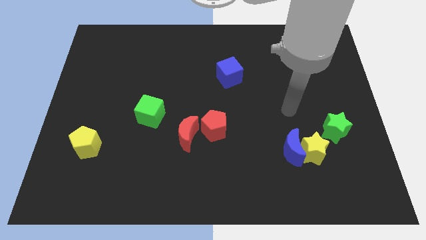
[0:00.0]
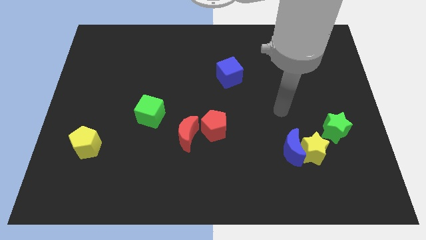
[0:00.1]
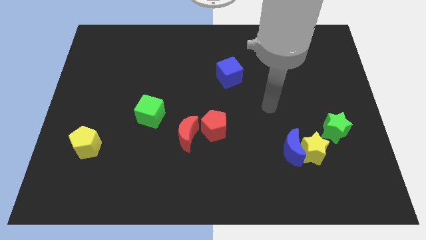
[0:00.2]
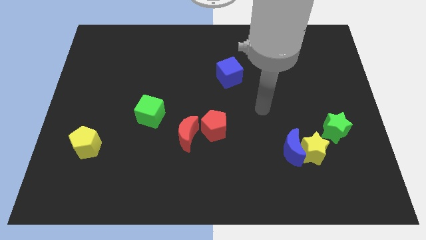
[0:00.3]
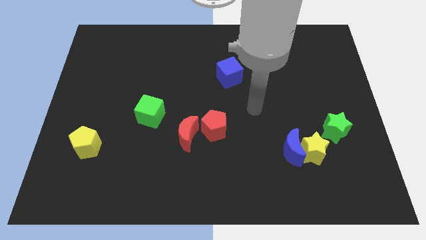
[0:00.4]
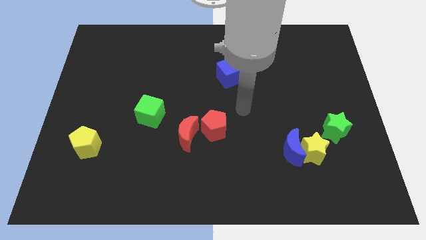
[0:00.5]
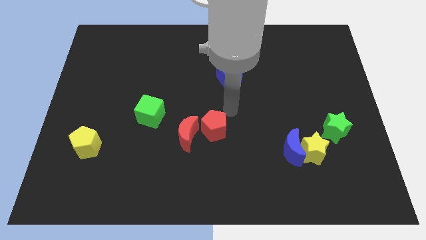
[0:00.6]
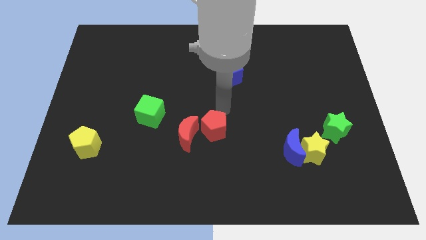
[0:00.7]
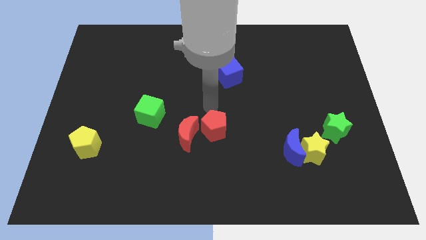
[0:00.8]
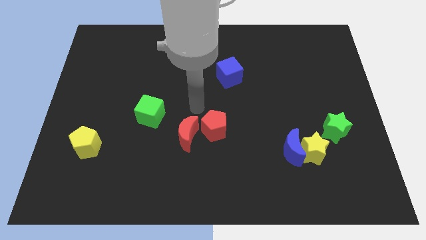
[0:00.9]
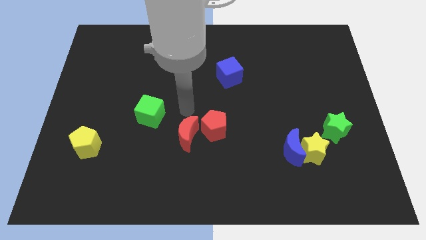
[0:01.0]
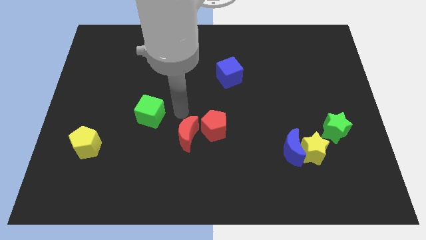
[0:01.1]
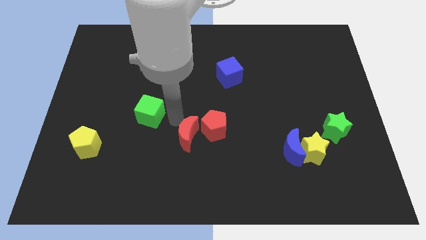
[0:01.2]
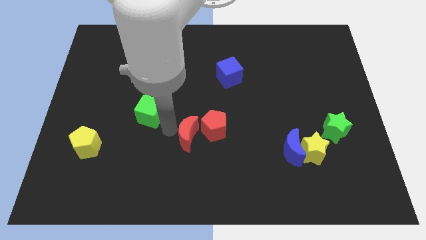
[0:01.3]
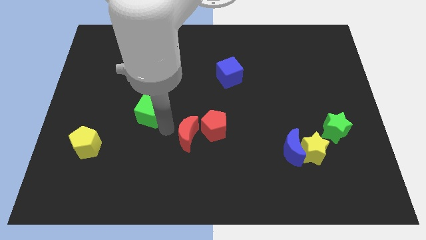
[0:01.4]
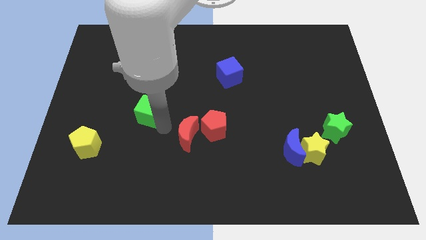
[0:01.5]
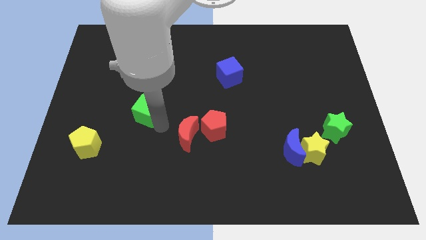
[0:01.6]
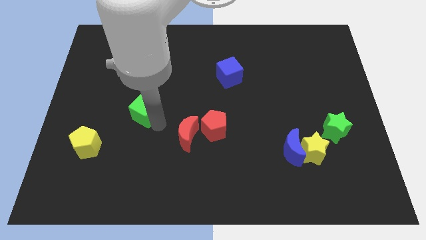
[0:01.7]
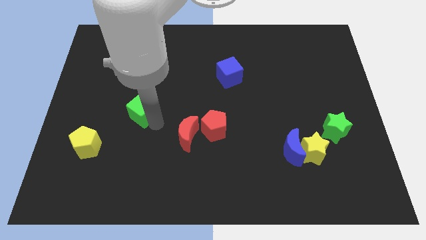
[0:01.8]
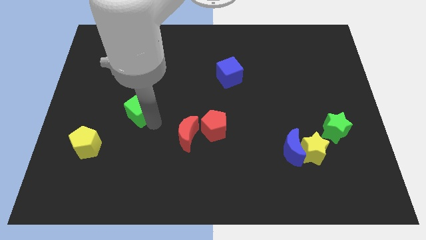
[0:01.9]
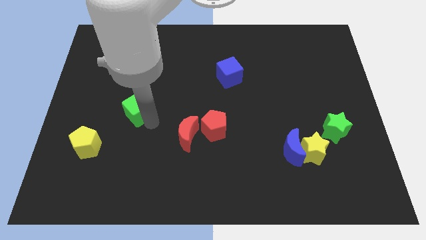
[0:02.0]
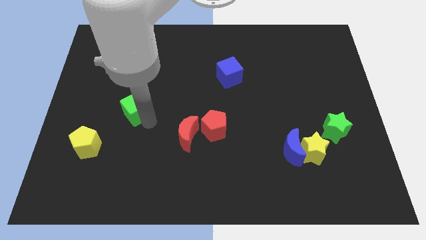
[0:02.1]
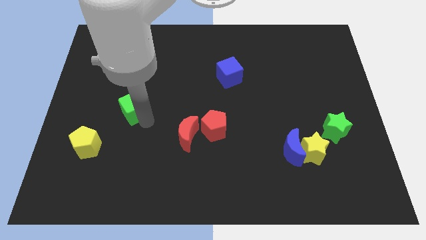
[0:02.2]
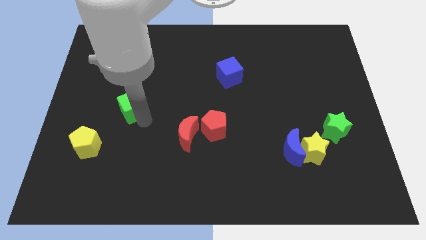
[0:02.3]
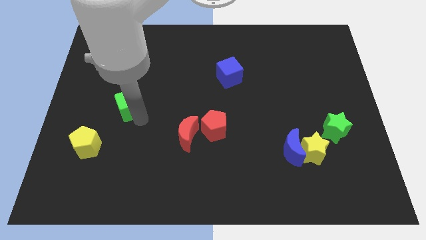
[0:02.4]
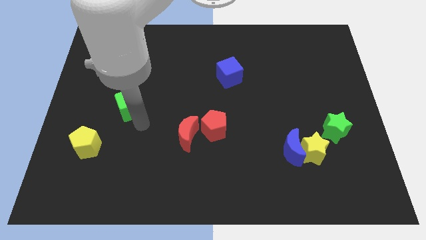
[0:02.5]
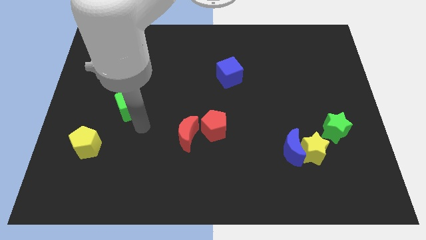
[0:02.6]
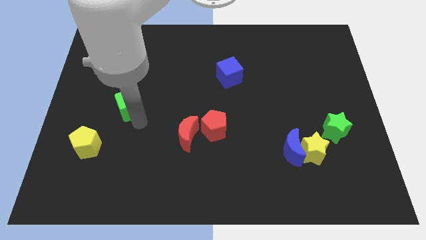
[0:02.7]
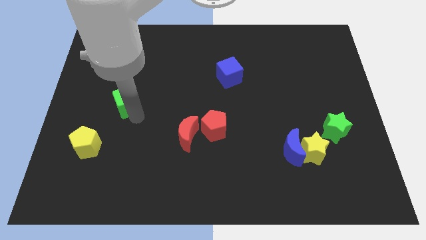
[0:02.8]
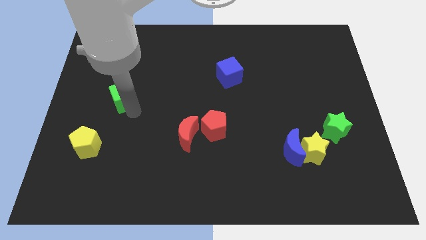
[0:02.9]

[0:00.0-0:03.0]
slide the green cube somewhat diagonally up and left

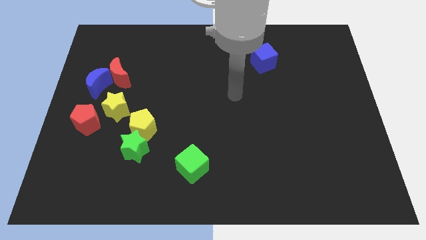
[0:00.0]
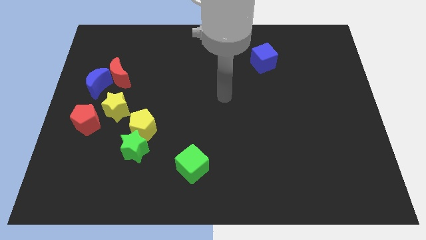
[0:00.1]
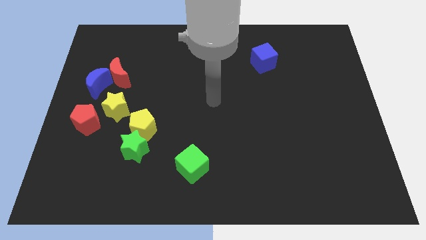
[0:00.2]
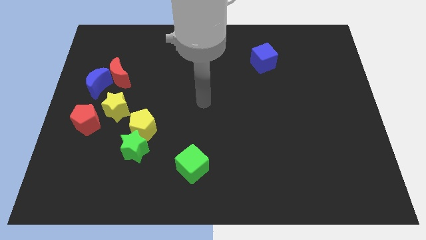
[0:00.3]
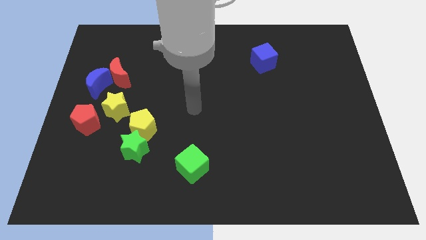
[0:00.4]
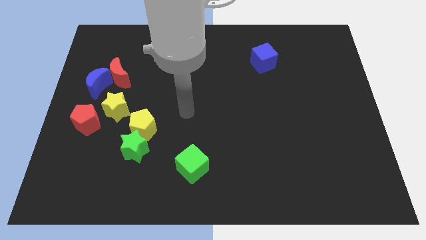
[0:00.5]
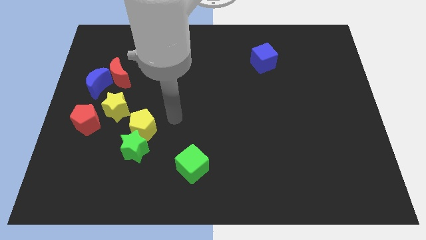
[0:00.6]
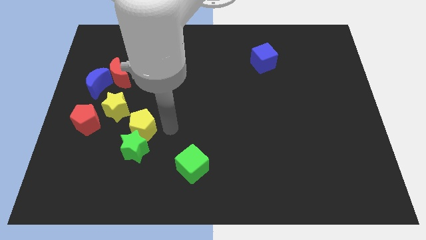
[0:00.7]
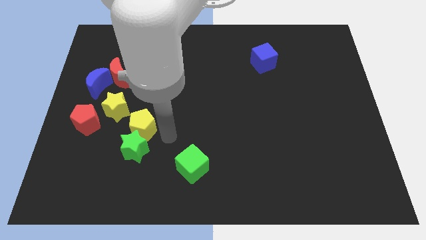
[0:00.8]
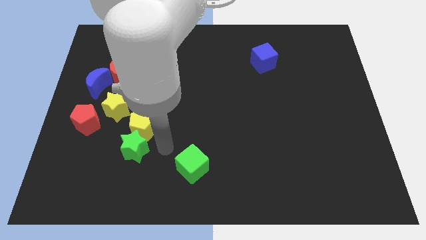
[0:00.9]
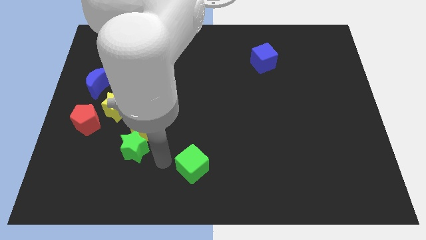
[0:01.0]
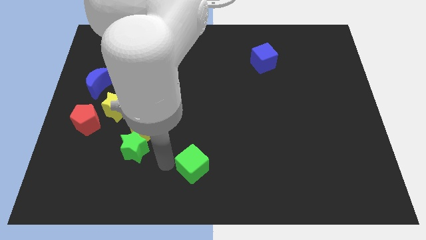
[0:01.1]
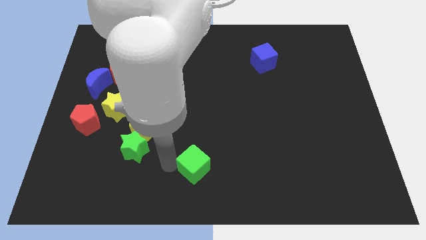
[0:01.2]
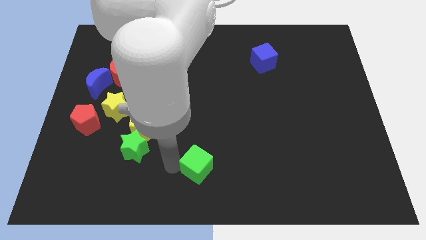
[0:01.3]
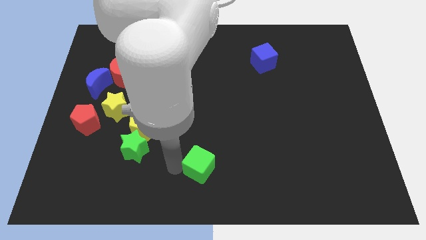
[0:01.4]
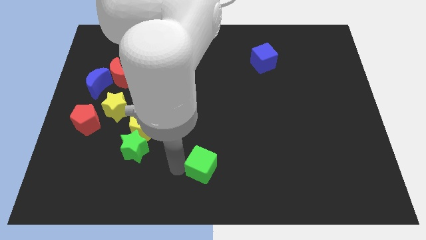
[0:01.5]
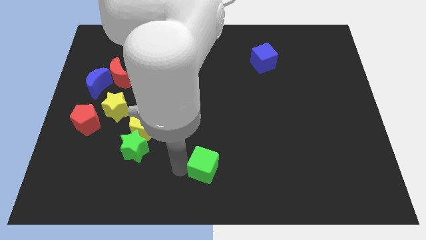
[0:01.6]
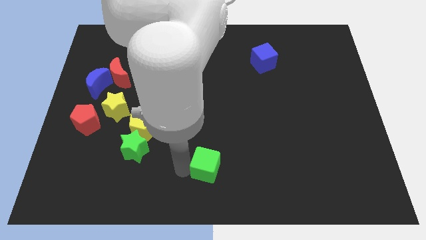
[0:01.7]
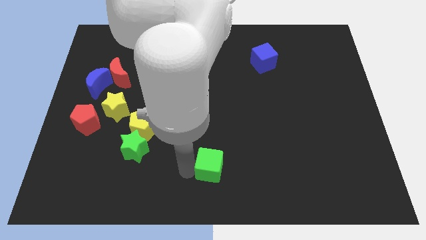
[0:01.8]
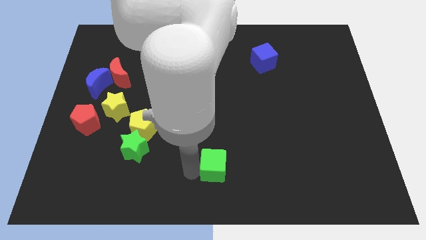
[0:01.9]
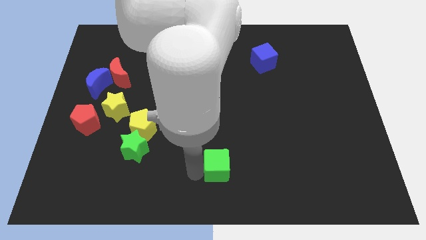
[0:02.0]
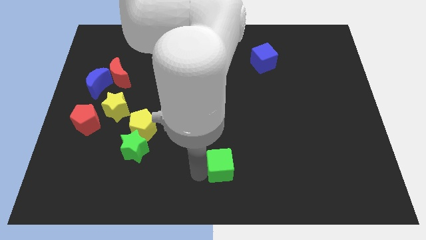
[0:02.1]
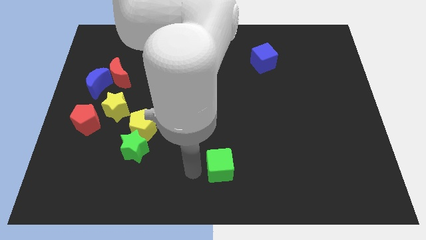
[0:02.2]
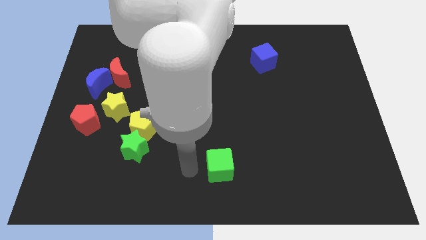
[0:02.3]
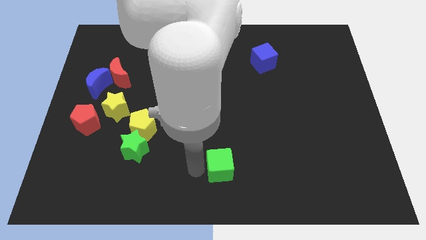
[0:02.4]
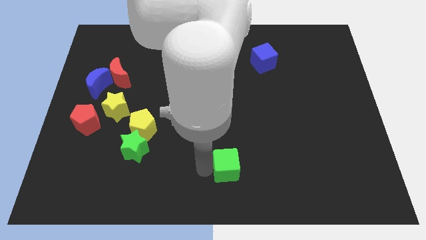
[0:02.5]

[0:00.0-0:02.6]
slightly move the green cube right

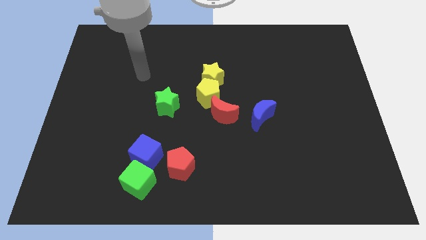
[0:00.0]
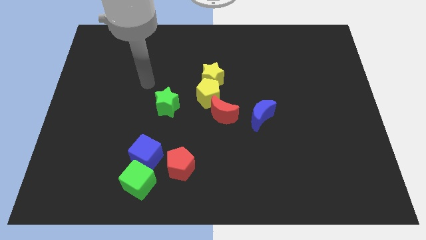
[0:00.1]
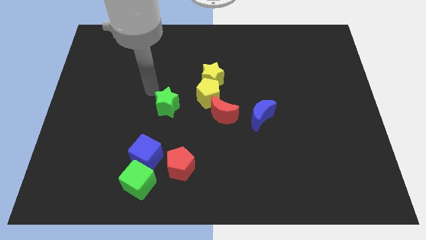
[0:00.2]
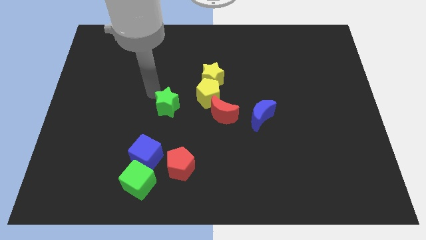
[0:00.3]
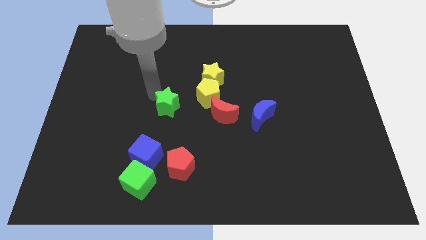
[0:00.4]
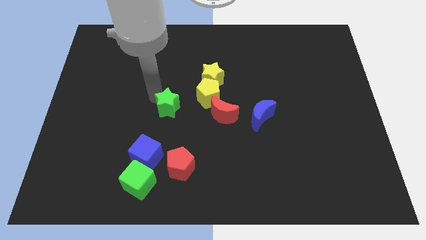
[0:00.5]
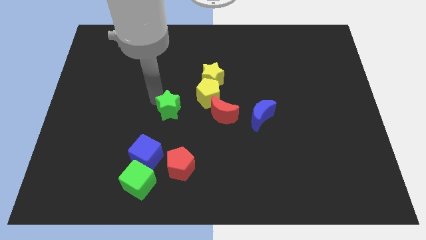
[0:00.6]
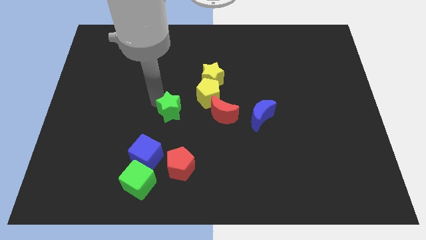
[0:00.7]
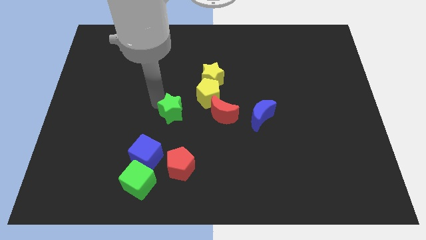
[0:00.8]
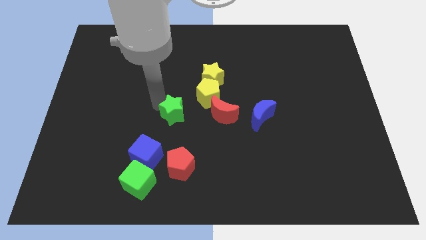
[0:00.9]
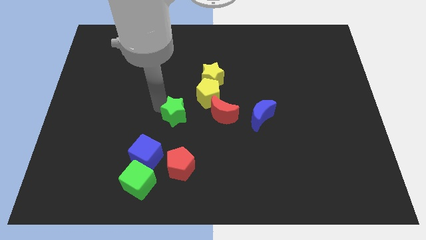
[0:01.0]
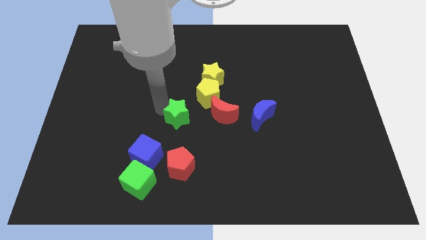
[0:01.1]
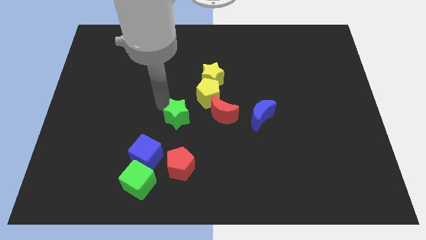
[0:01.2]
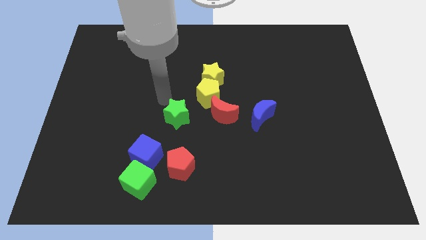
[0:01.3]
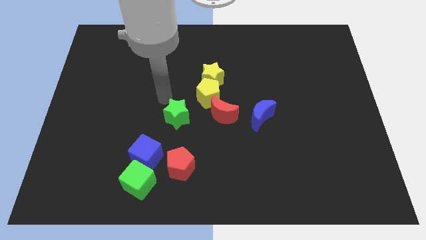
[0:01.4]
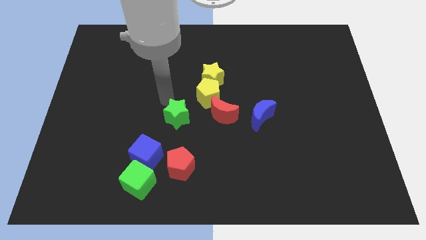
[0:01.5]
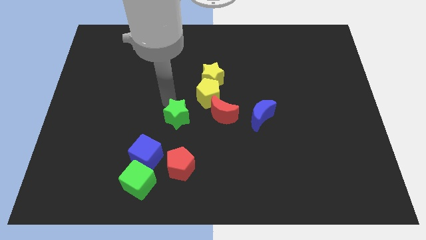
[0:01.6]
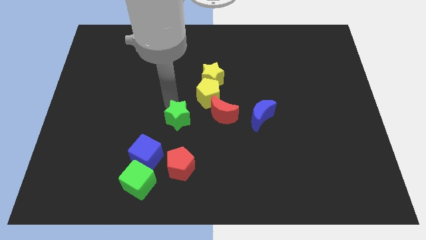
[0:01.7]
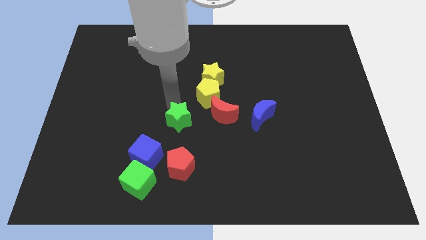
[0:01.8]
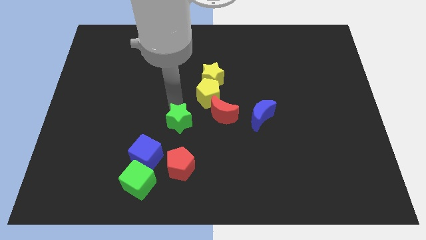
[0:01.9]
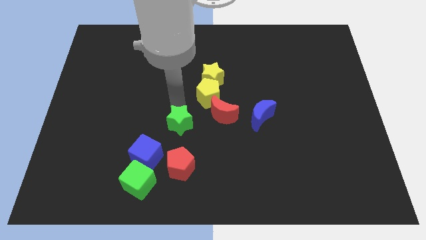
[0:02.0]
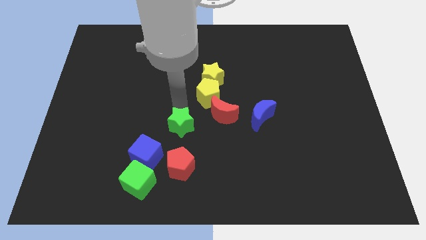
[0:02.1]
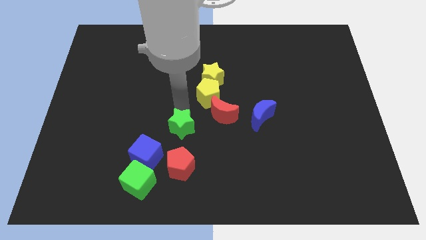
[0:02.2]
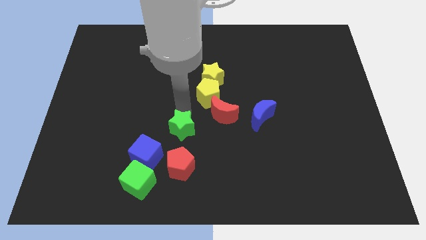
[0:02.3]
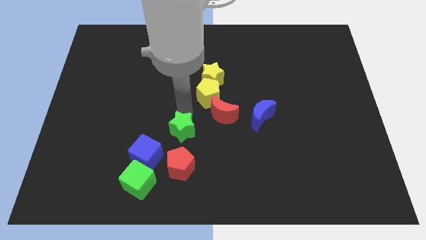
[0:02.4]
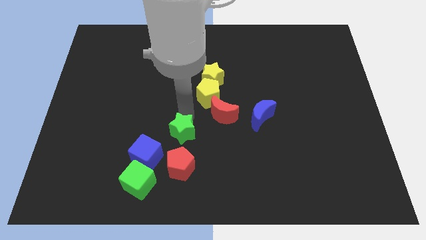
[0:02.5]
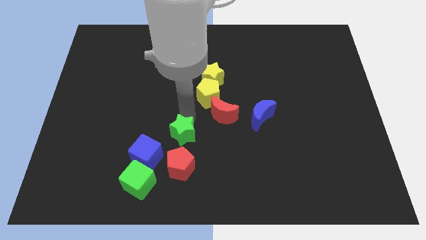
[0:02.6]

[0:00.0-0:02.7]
slide the green star downwards a little bit
